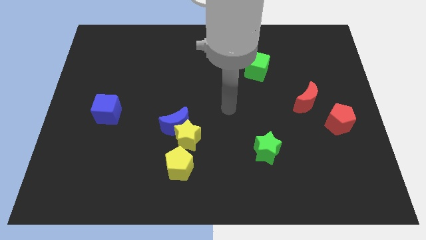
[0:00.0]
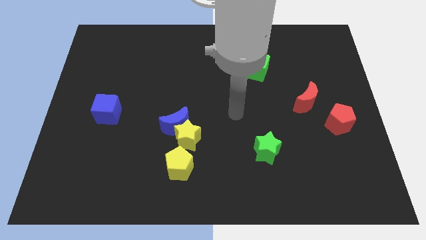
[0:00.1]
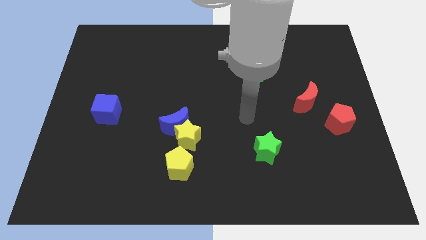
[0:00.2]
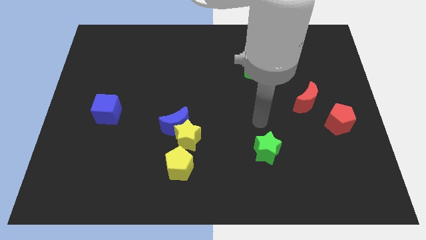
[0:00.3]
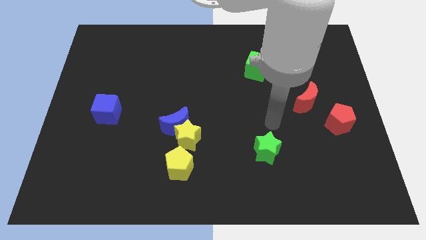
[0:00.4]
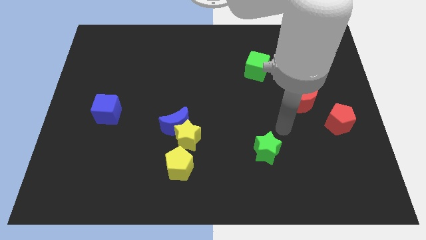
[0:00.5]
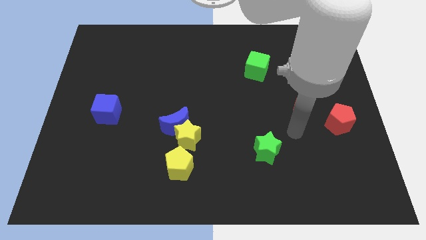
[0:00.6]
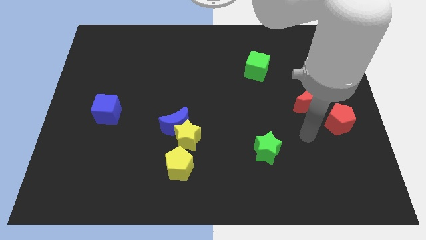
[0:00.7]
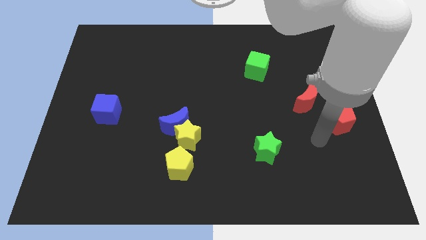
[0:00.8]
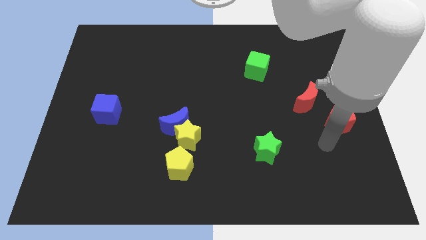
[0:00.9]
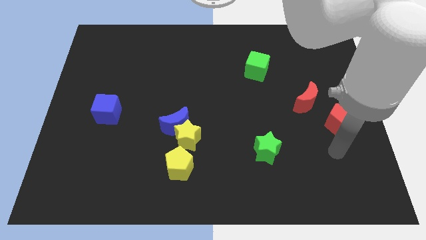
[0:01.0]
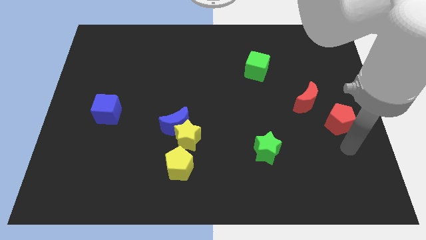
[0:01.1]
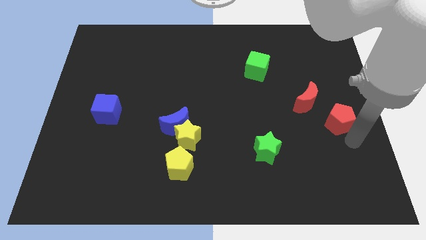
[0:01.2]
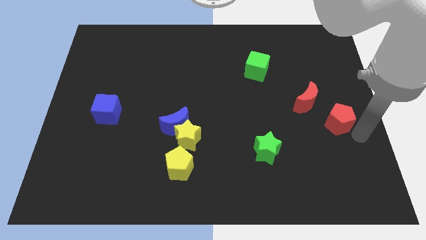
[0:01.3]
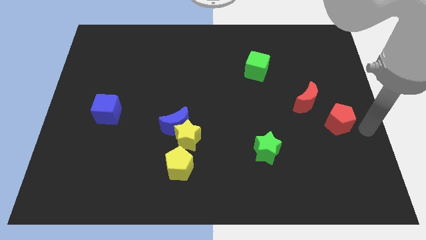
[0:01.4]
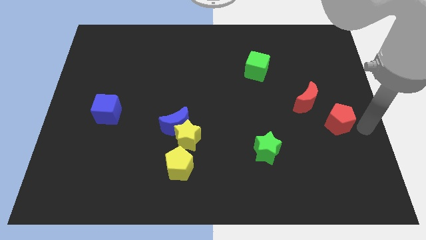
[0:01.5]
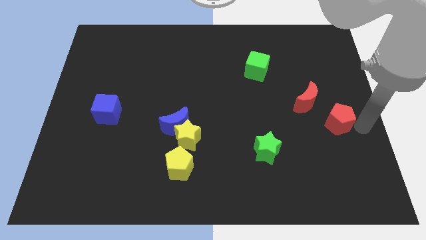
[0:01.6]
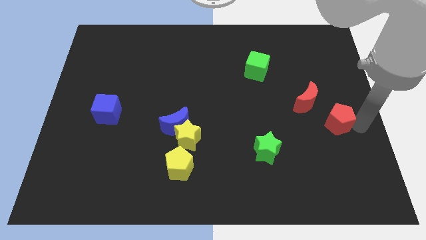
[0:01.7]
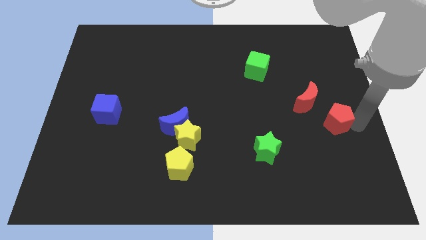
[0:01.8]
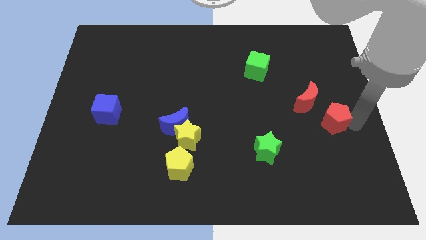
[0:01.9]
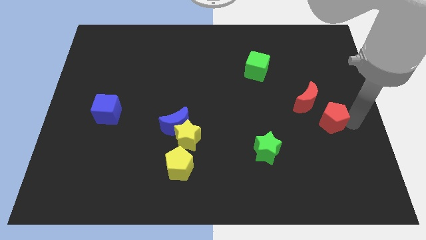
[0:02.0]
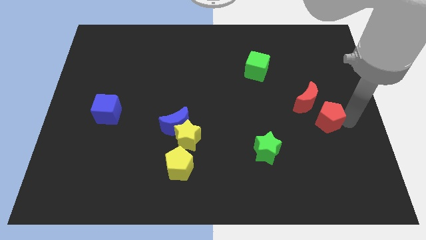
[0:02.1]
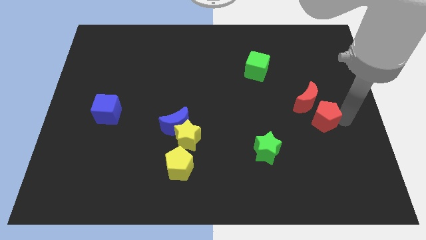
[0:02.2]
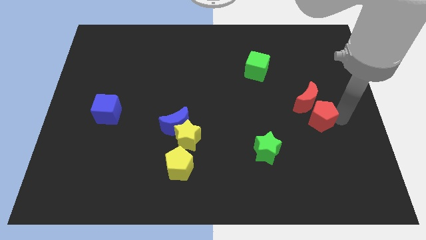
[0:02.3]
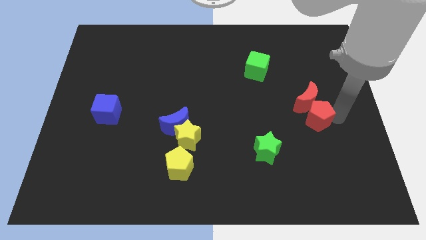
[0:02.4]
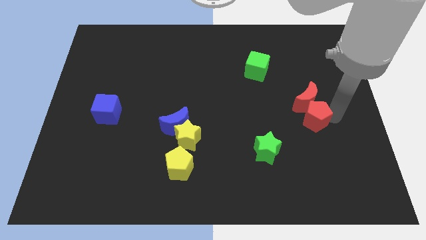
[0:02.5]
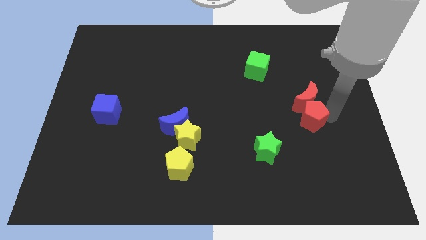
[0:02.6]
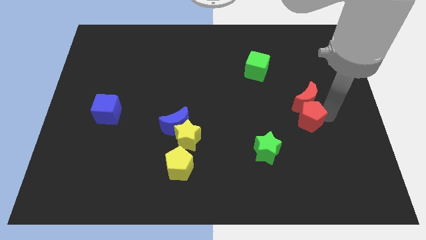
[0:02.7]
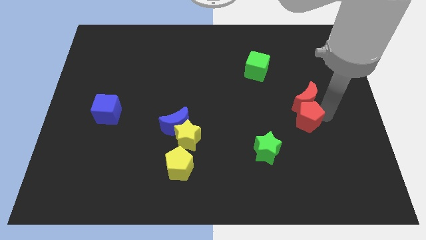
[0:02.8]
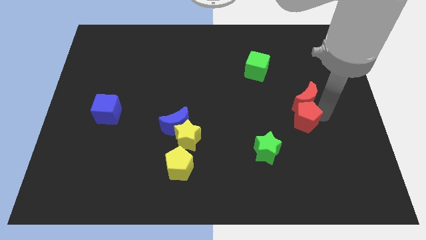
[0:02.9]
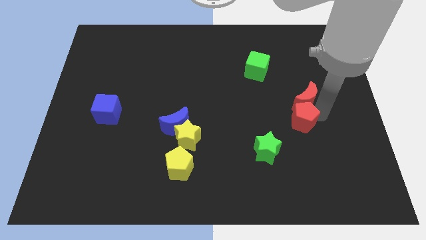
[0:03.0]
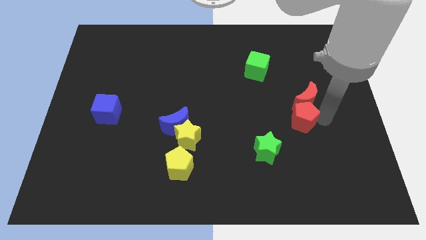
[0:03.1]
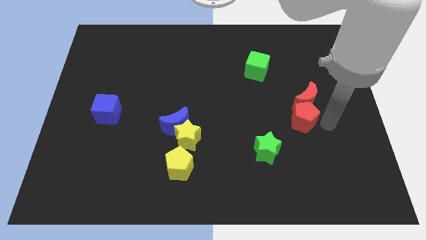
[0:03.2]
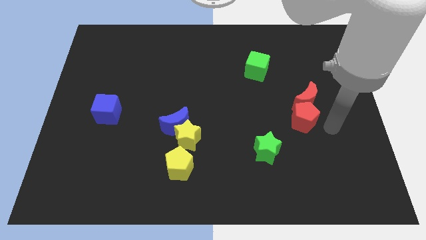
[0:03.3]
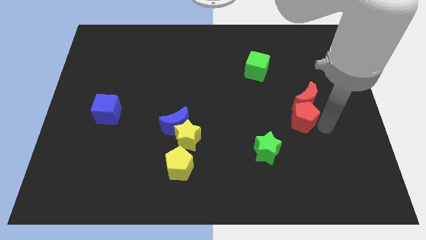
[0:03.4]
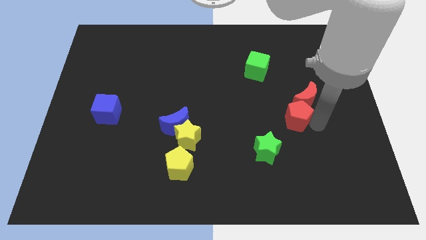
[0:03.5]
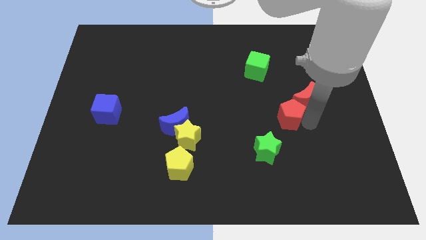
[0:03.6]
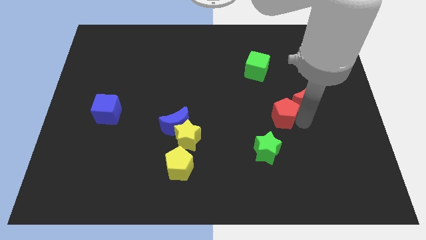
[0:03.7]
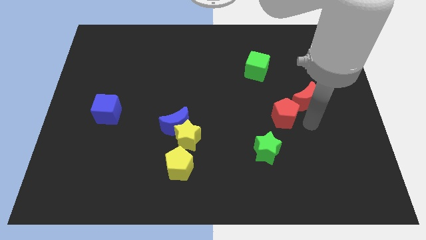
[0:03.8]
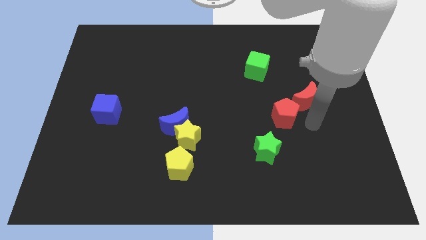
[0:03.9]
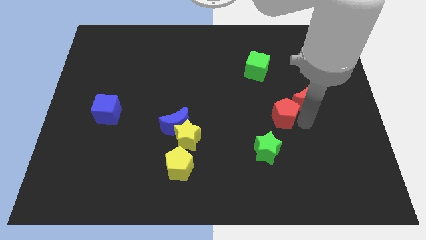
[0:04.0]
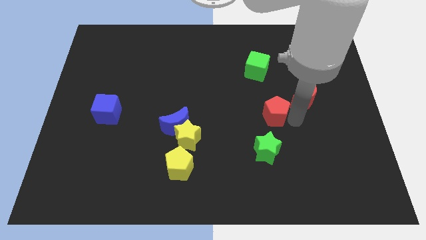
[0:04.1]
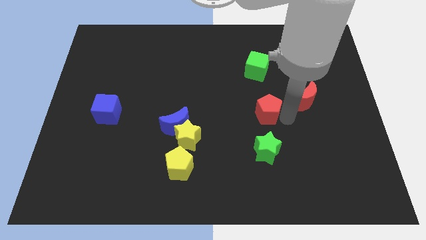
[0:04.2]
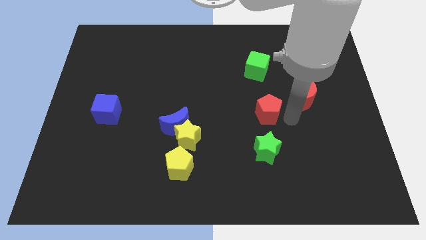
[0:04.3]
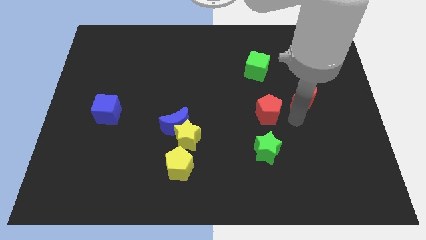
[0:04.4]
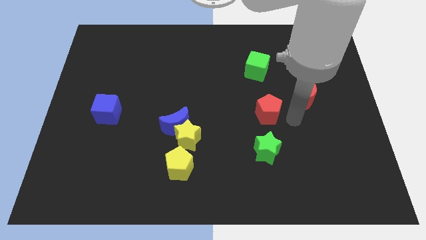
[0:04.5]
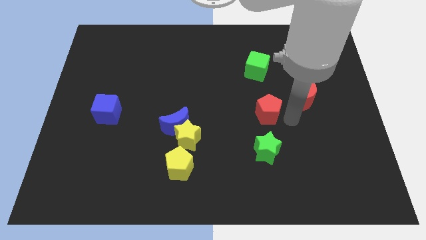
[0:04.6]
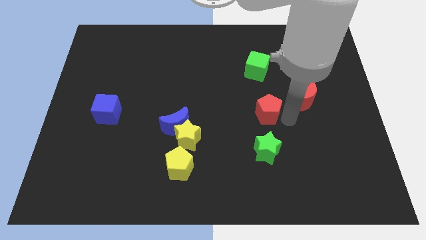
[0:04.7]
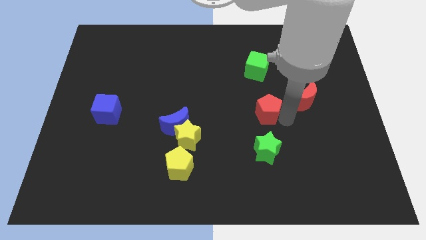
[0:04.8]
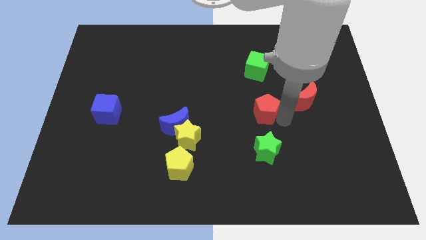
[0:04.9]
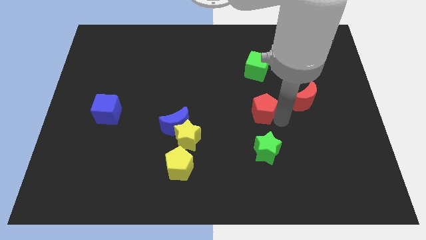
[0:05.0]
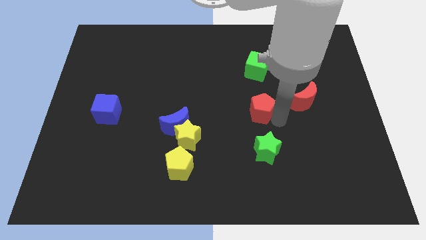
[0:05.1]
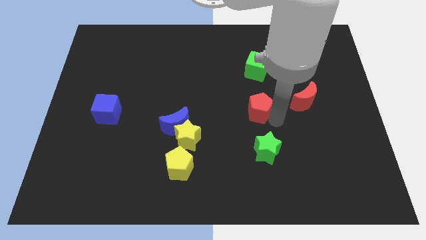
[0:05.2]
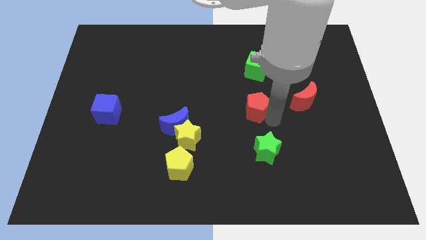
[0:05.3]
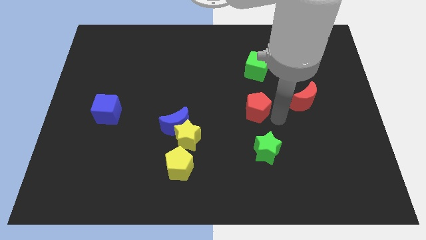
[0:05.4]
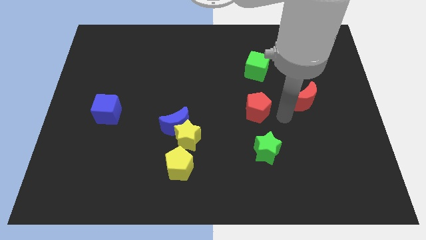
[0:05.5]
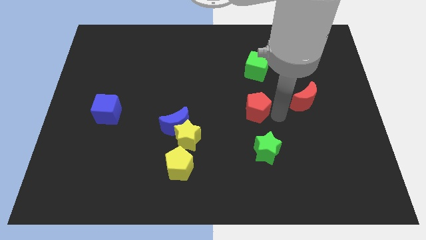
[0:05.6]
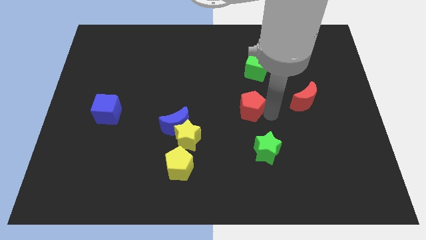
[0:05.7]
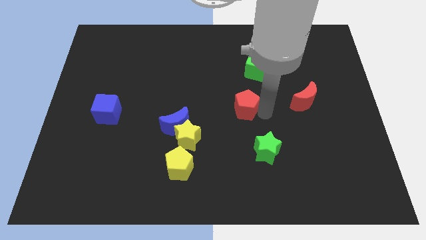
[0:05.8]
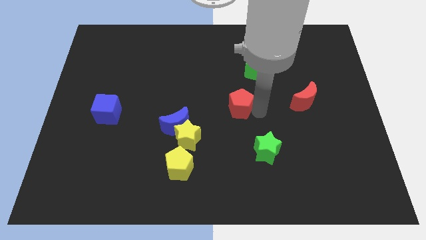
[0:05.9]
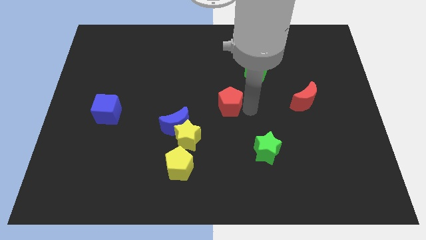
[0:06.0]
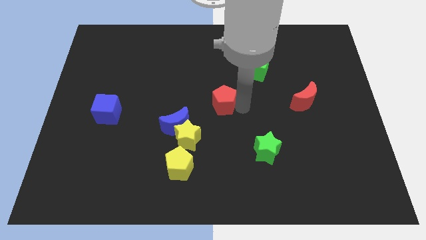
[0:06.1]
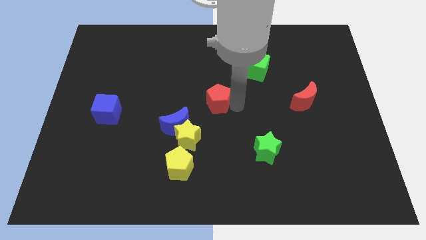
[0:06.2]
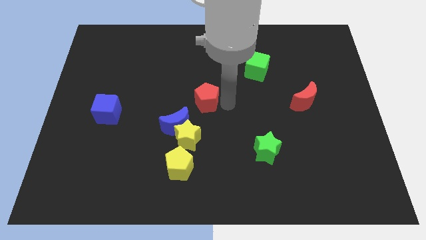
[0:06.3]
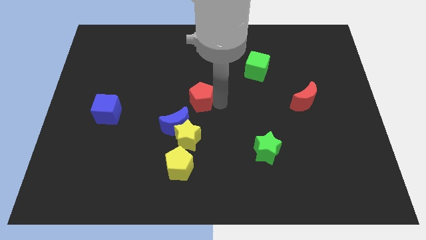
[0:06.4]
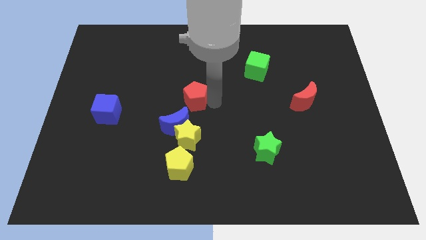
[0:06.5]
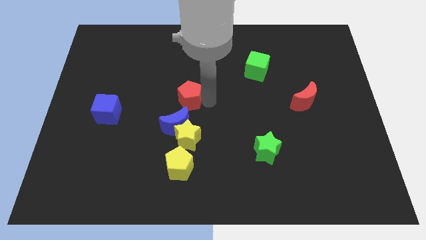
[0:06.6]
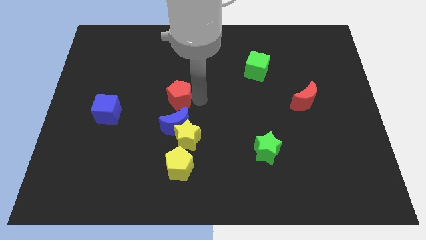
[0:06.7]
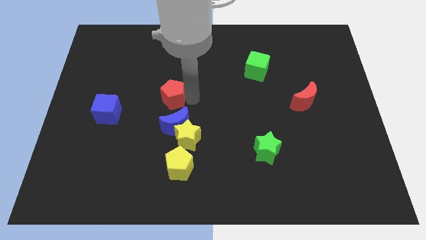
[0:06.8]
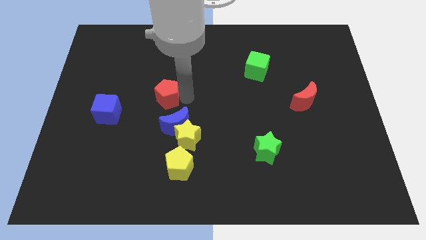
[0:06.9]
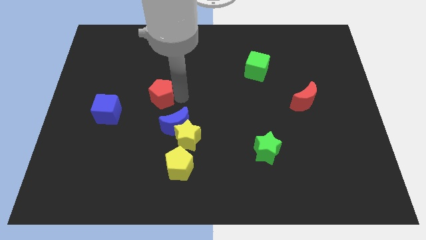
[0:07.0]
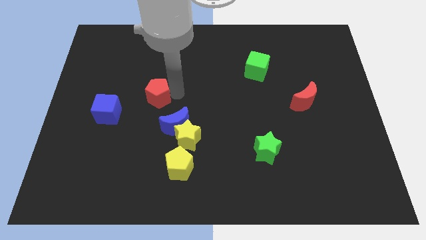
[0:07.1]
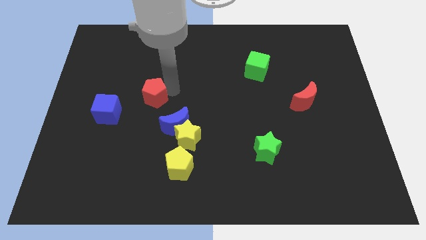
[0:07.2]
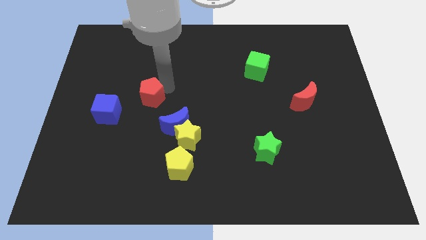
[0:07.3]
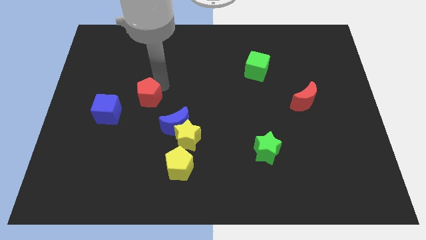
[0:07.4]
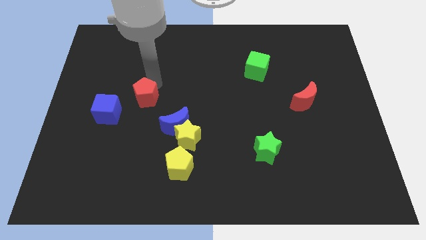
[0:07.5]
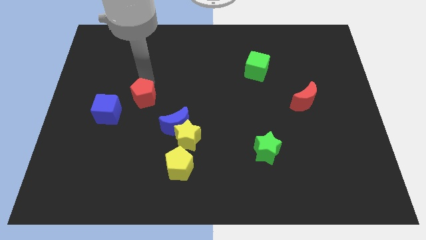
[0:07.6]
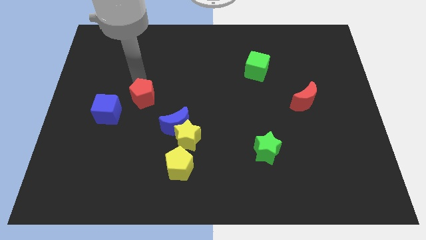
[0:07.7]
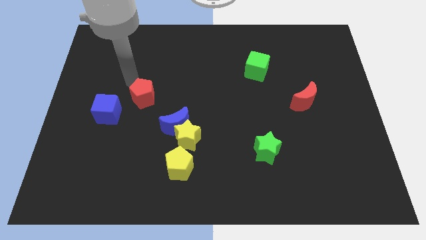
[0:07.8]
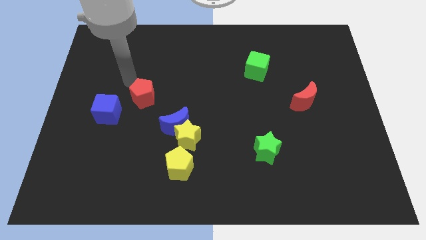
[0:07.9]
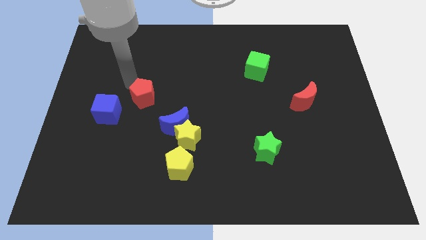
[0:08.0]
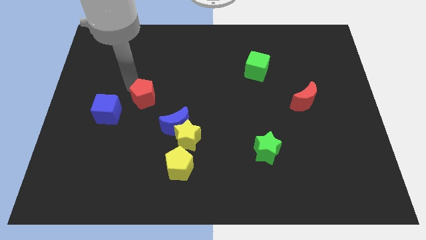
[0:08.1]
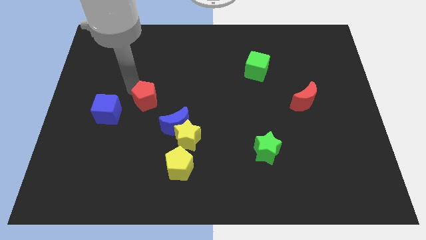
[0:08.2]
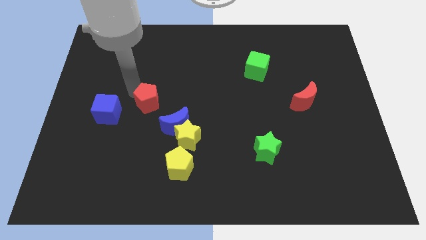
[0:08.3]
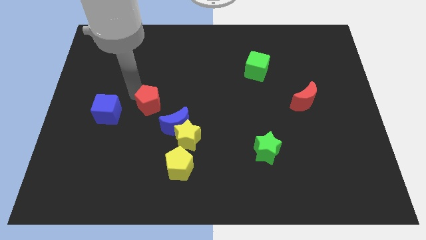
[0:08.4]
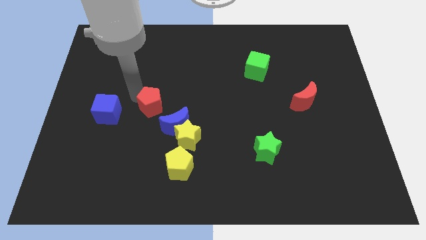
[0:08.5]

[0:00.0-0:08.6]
slide the red pentagon to the top left of the yellow star
